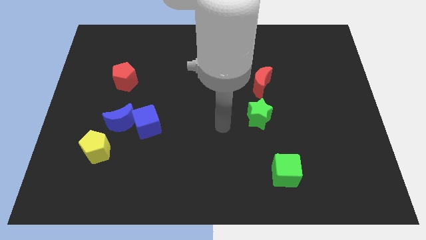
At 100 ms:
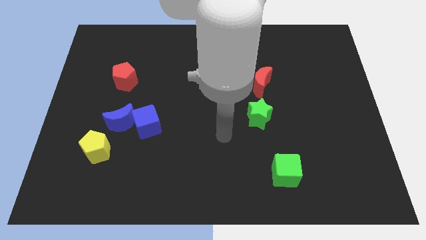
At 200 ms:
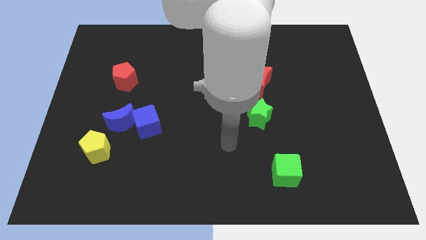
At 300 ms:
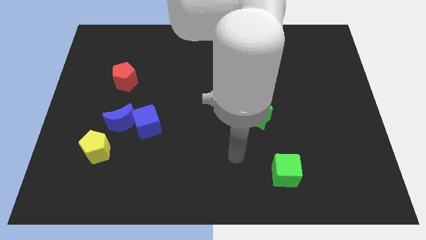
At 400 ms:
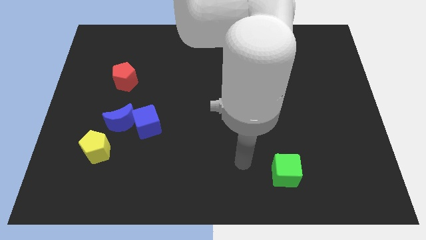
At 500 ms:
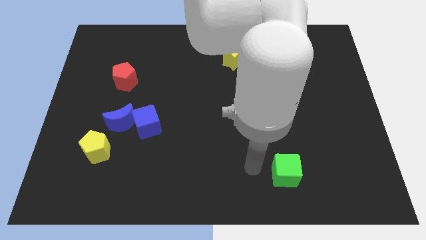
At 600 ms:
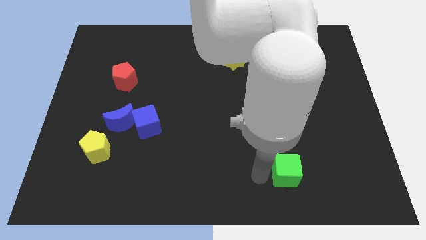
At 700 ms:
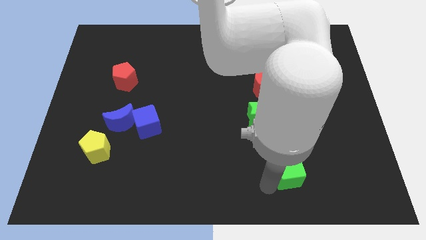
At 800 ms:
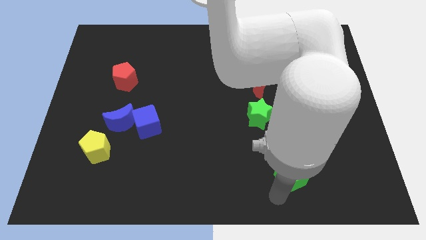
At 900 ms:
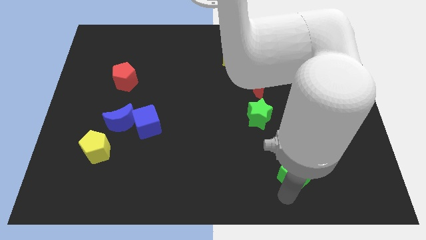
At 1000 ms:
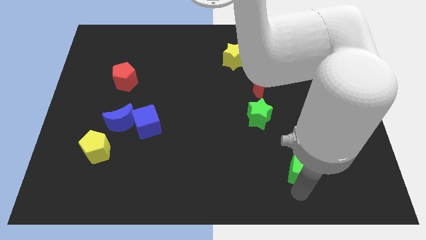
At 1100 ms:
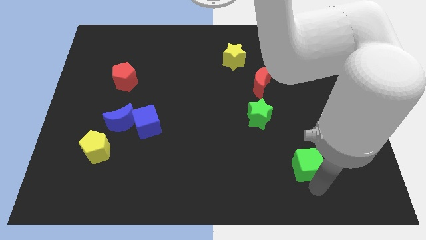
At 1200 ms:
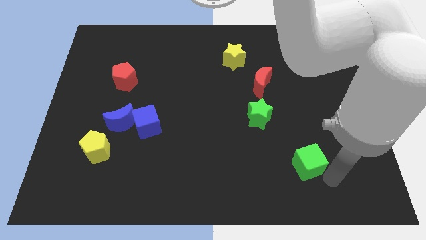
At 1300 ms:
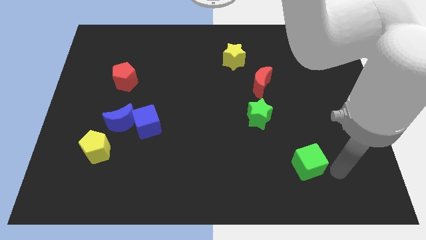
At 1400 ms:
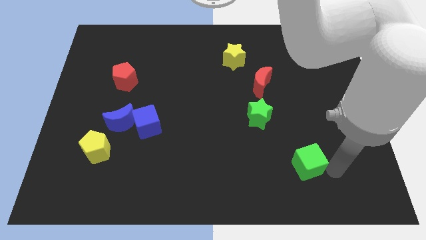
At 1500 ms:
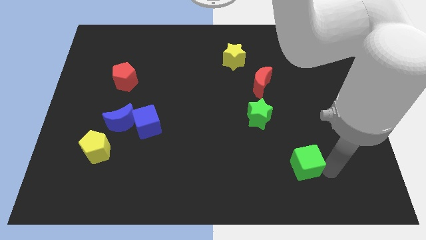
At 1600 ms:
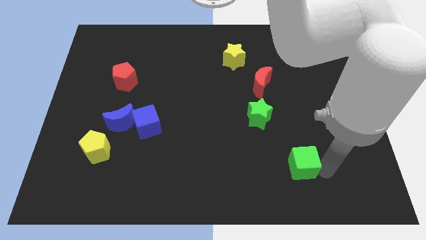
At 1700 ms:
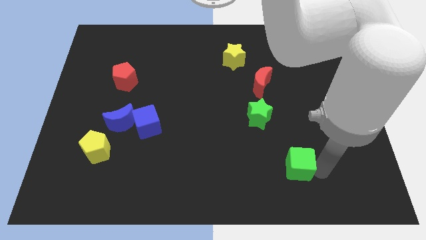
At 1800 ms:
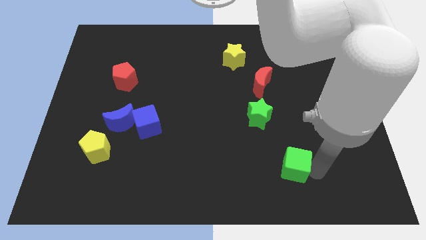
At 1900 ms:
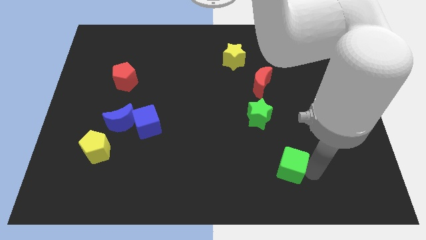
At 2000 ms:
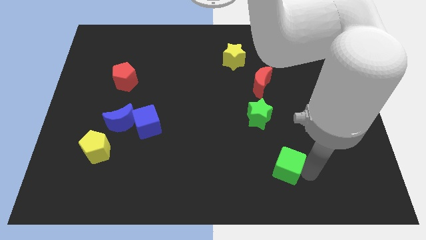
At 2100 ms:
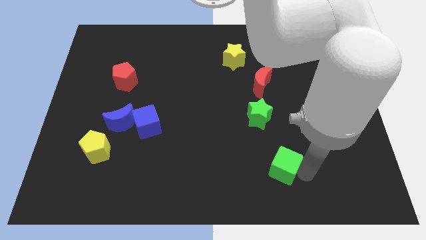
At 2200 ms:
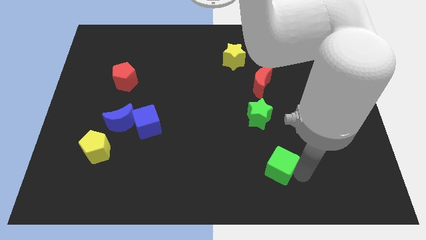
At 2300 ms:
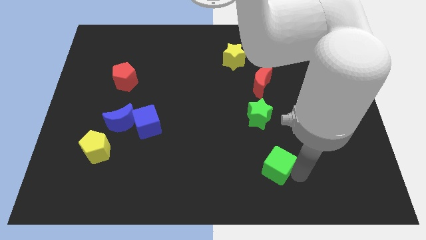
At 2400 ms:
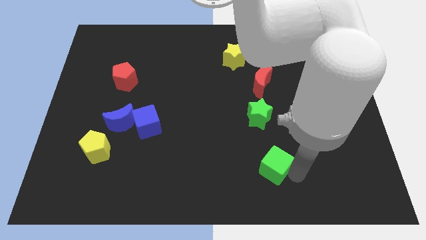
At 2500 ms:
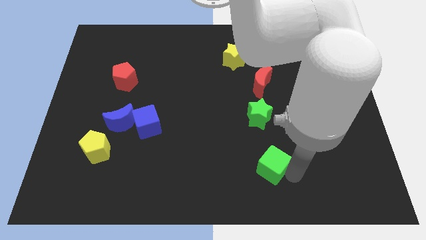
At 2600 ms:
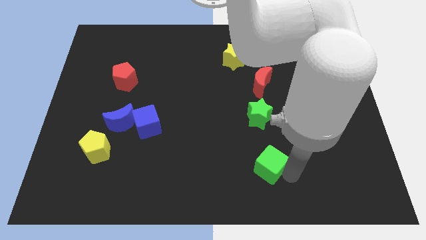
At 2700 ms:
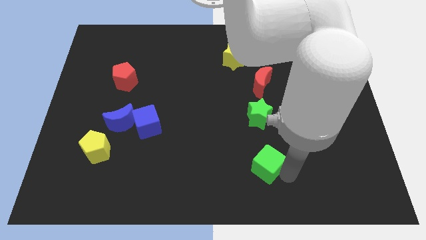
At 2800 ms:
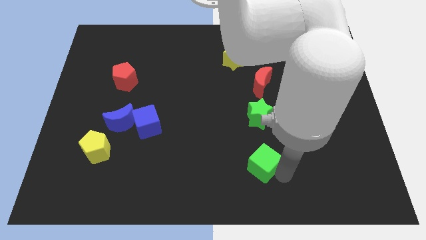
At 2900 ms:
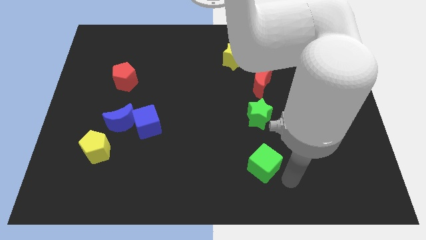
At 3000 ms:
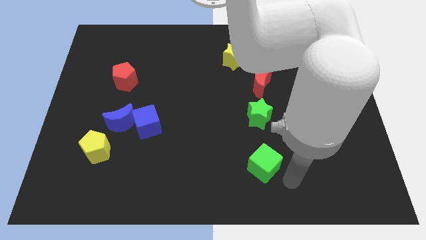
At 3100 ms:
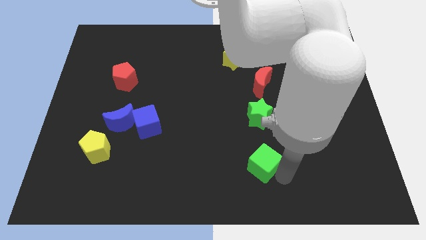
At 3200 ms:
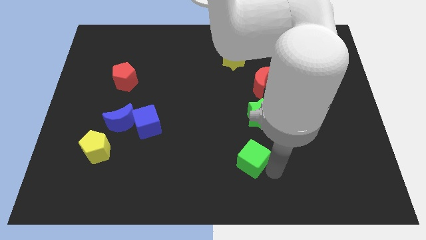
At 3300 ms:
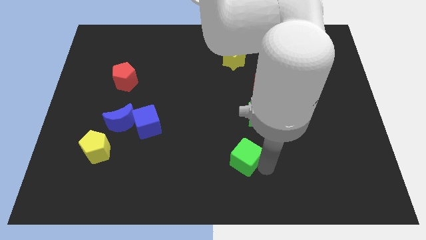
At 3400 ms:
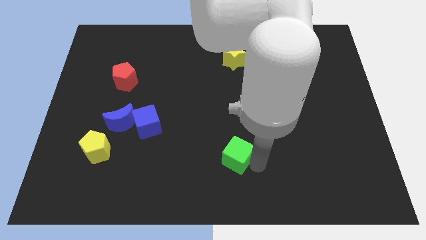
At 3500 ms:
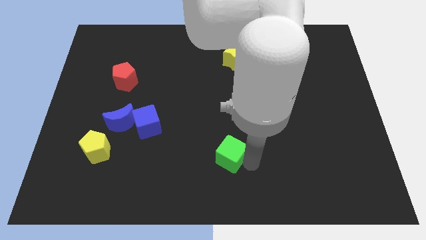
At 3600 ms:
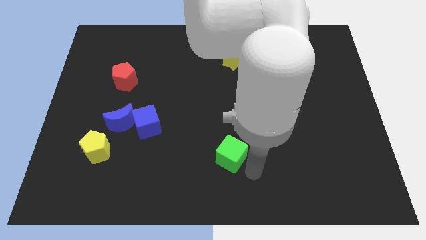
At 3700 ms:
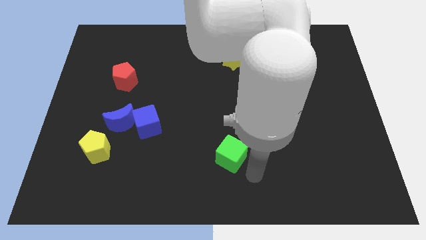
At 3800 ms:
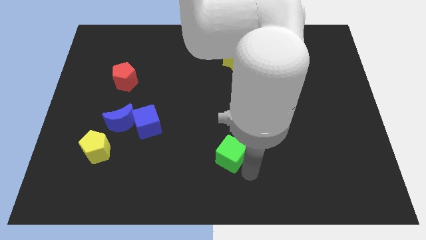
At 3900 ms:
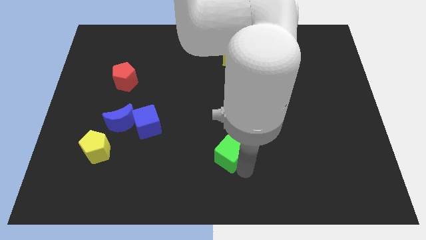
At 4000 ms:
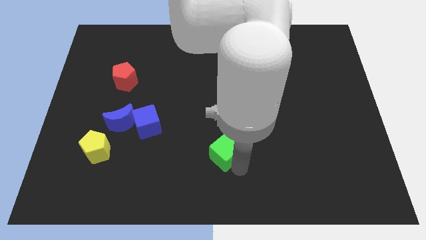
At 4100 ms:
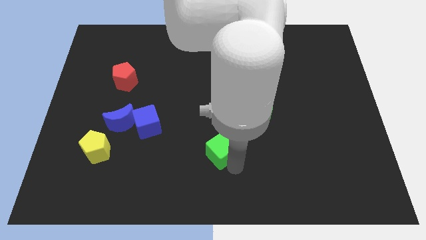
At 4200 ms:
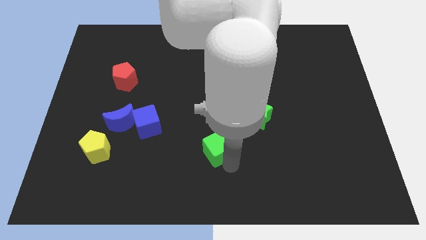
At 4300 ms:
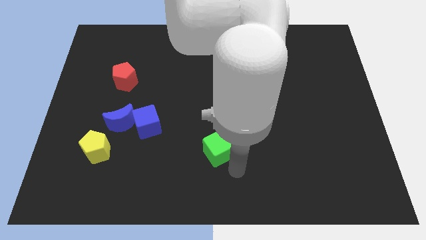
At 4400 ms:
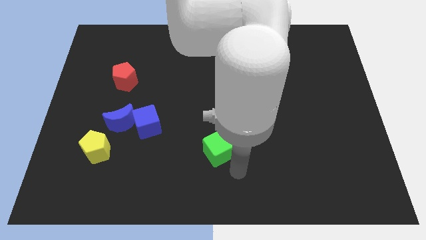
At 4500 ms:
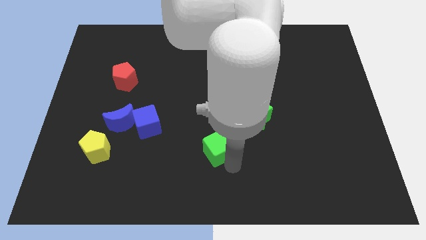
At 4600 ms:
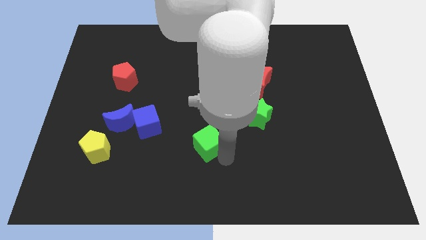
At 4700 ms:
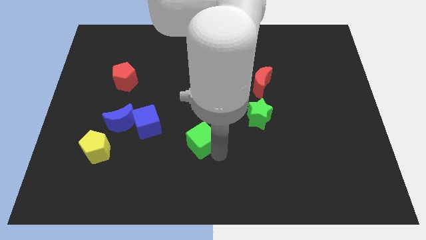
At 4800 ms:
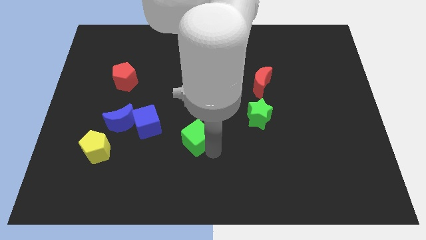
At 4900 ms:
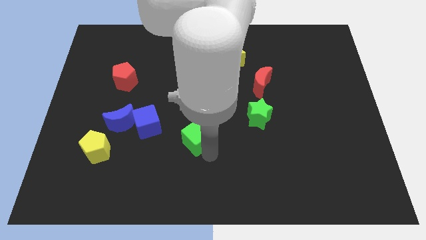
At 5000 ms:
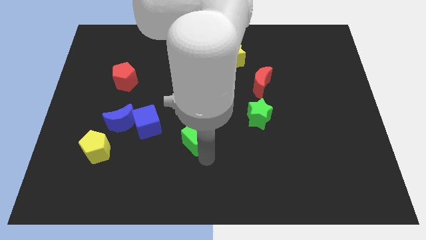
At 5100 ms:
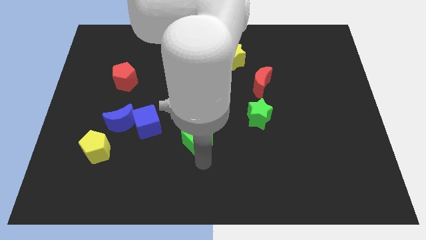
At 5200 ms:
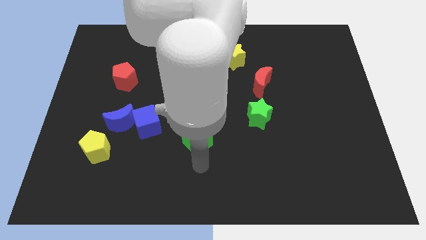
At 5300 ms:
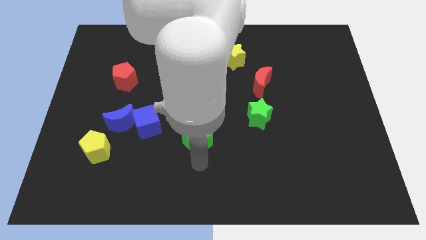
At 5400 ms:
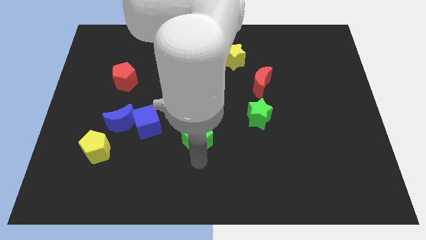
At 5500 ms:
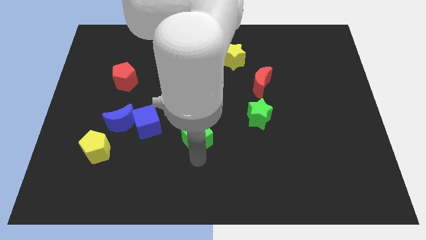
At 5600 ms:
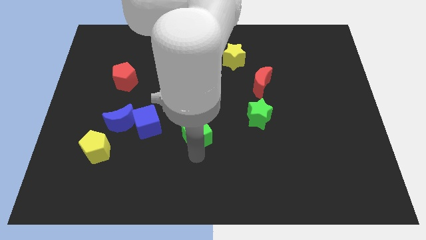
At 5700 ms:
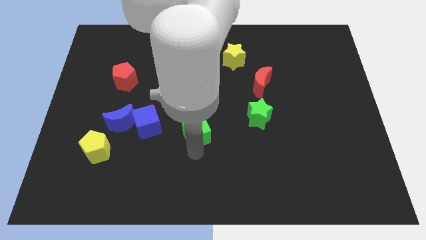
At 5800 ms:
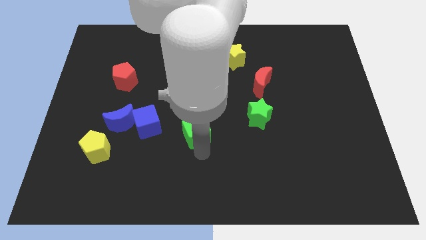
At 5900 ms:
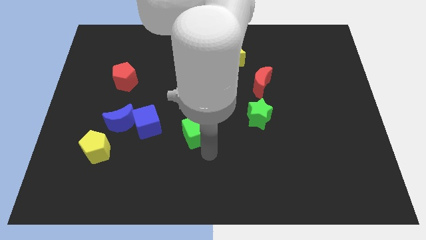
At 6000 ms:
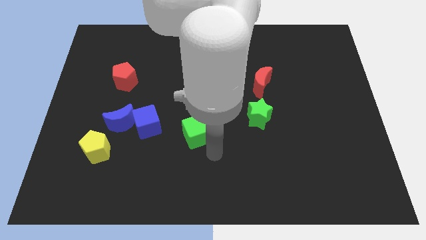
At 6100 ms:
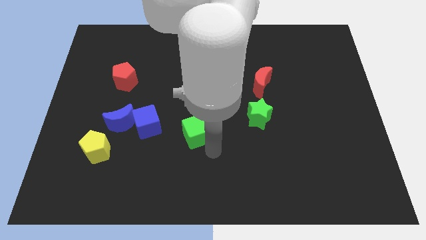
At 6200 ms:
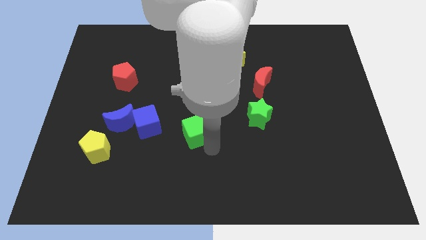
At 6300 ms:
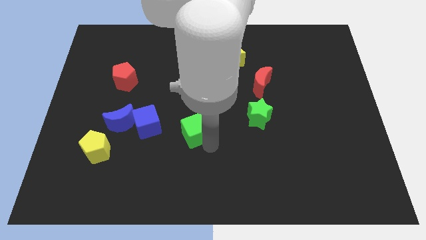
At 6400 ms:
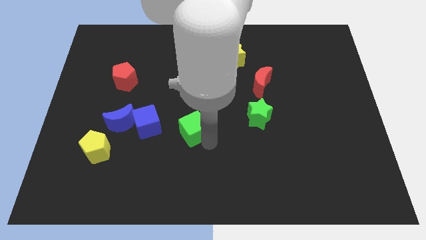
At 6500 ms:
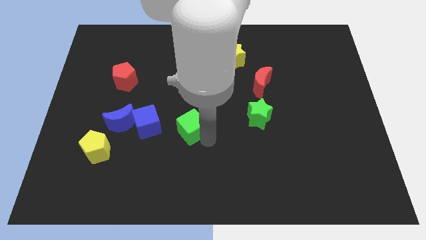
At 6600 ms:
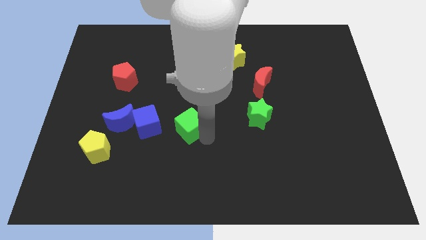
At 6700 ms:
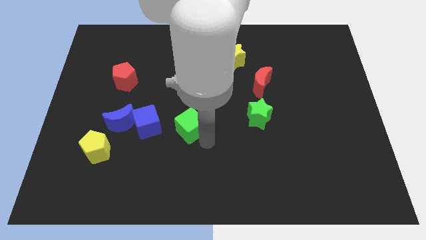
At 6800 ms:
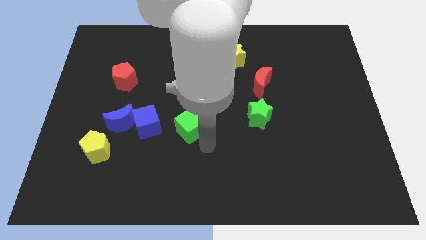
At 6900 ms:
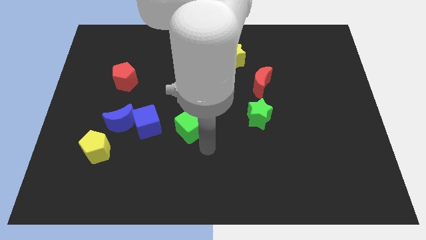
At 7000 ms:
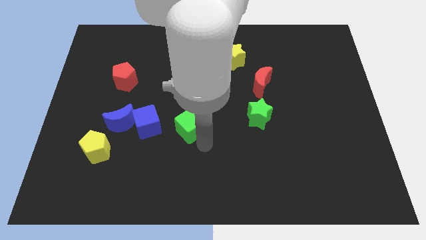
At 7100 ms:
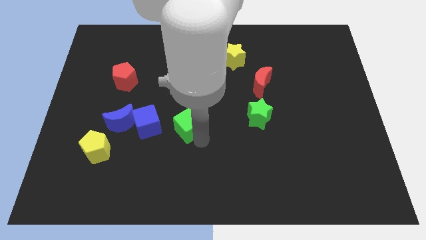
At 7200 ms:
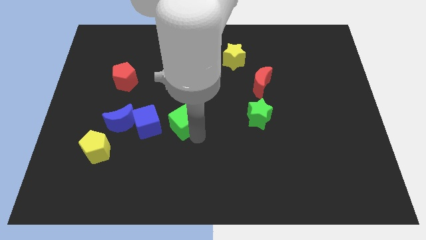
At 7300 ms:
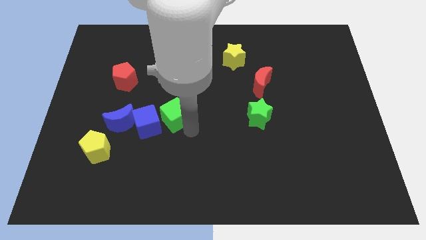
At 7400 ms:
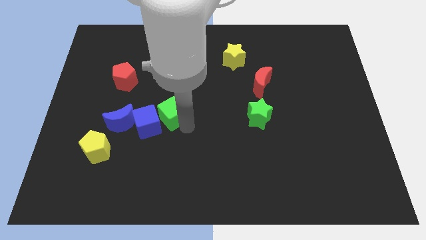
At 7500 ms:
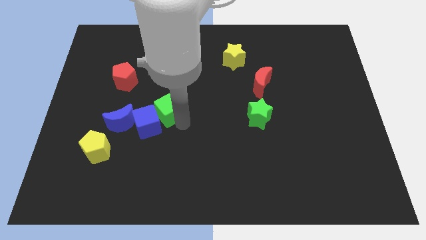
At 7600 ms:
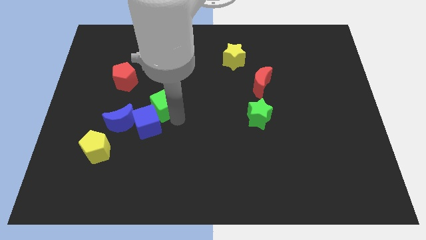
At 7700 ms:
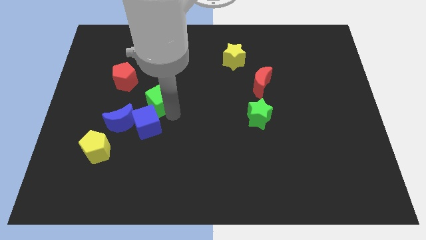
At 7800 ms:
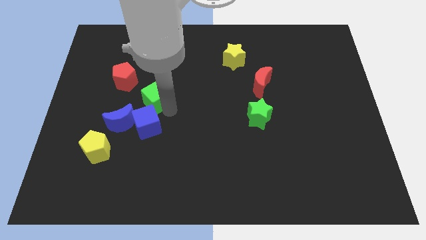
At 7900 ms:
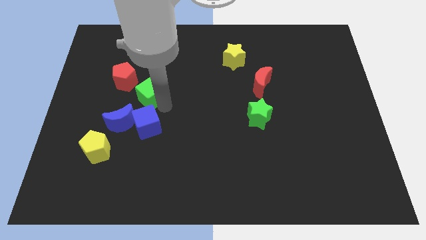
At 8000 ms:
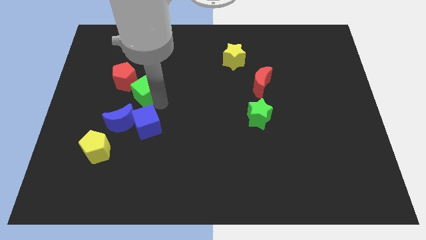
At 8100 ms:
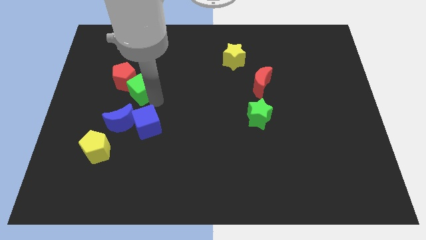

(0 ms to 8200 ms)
slide the green cube towards the red pentagon
